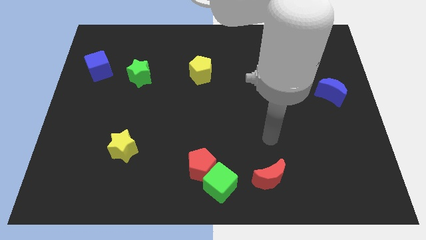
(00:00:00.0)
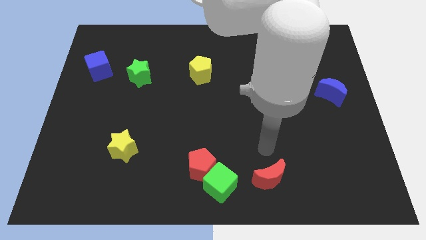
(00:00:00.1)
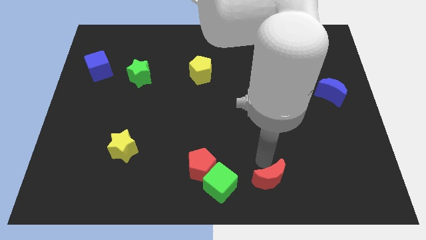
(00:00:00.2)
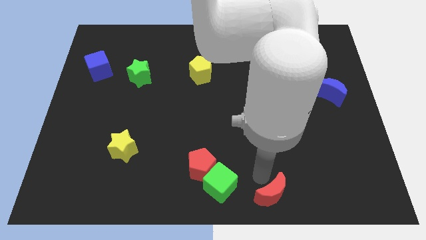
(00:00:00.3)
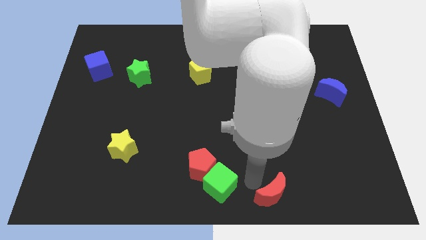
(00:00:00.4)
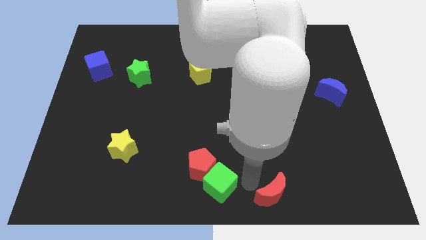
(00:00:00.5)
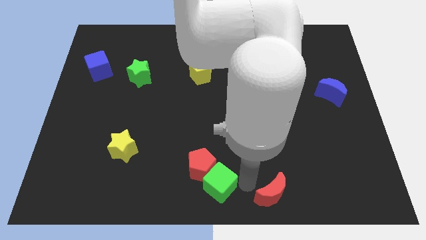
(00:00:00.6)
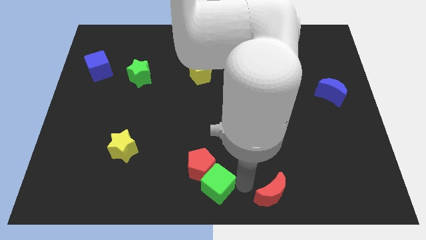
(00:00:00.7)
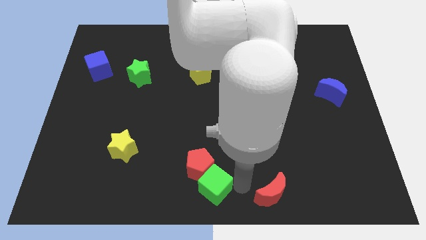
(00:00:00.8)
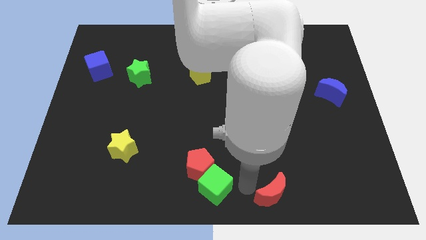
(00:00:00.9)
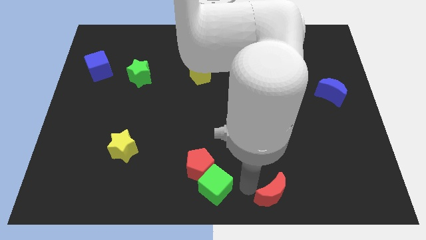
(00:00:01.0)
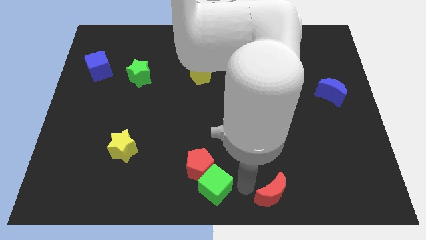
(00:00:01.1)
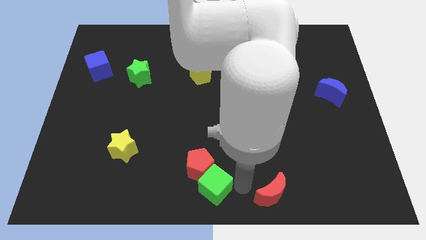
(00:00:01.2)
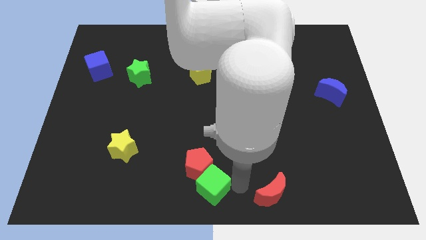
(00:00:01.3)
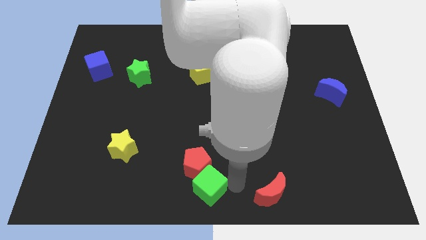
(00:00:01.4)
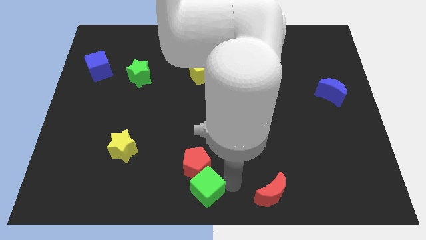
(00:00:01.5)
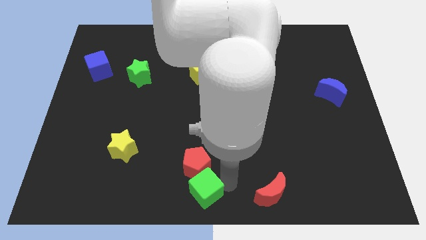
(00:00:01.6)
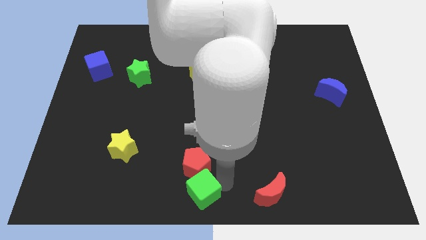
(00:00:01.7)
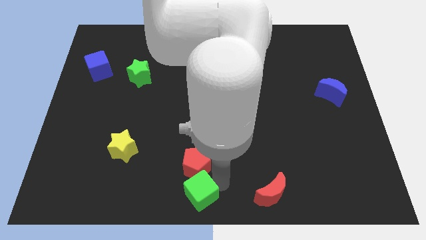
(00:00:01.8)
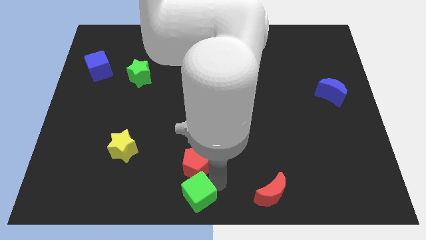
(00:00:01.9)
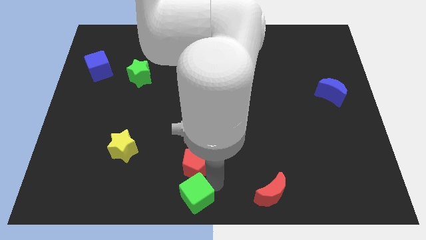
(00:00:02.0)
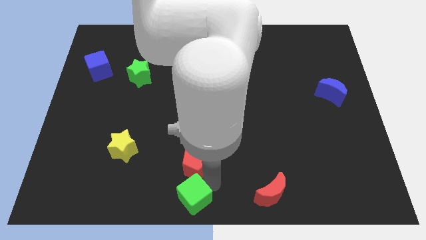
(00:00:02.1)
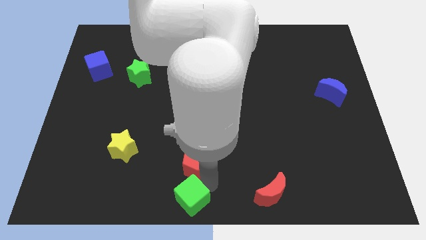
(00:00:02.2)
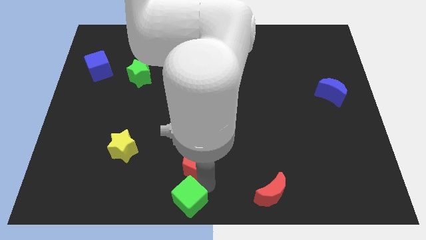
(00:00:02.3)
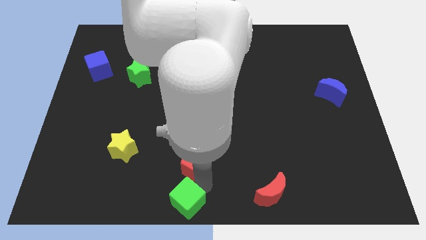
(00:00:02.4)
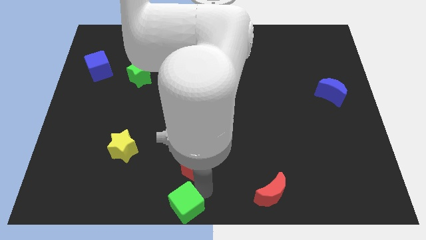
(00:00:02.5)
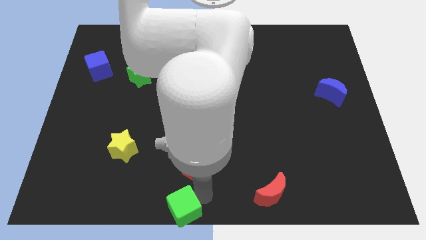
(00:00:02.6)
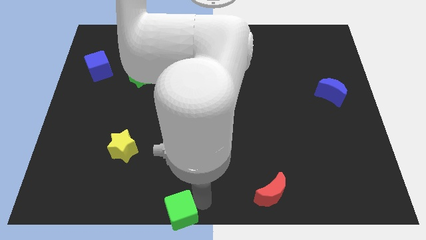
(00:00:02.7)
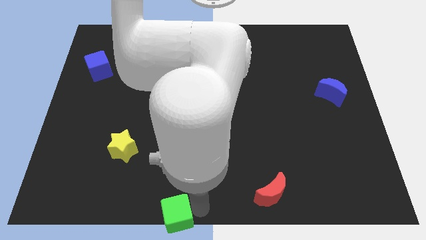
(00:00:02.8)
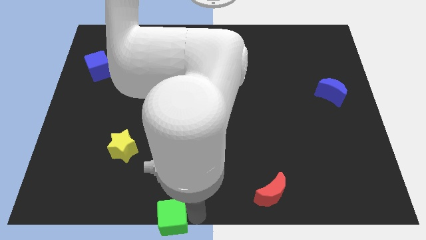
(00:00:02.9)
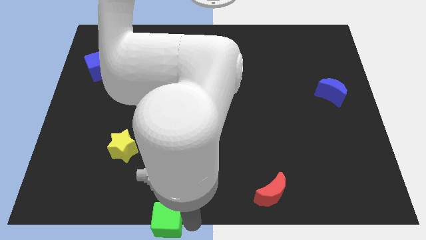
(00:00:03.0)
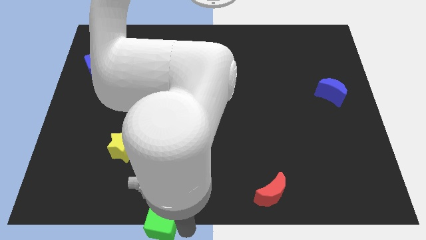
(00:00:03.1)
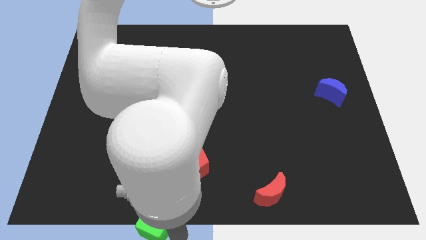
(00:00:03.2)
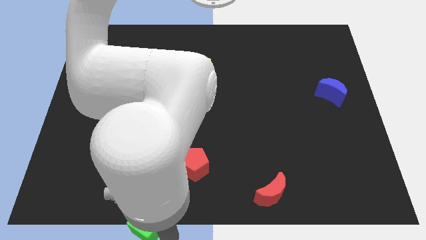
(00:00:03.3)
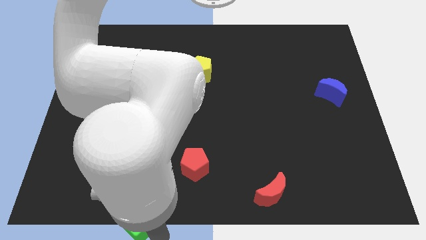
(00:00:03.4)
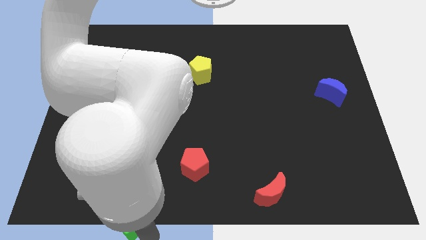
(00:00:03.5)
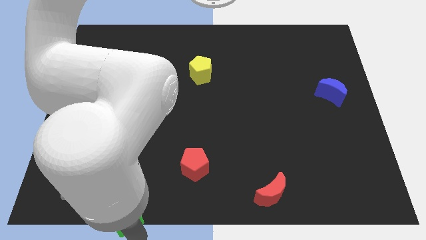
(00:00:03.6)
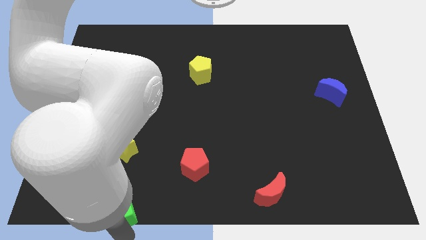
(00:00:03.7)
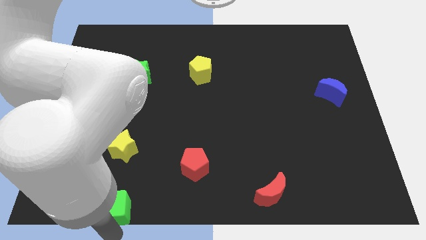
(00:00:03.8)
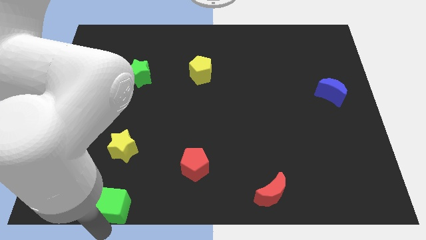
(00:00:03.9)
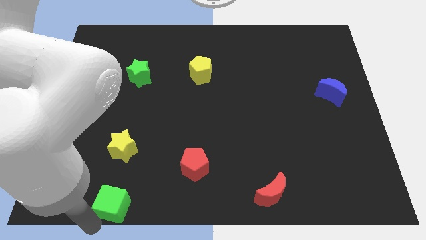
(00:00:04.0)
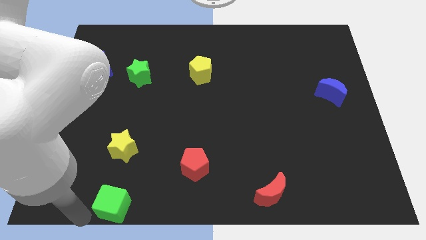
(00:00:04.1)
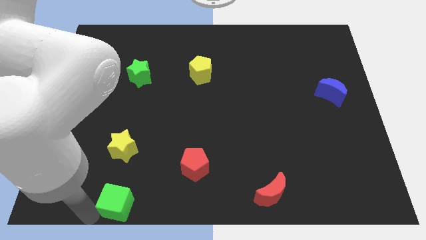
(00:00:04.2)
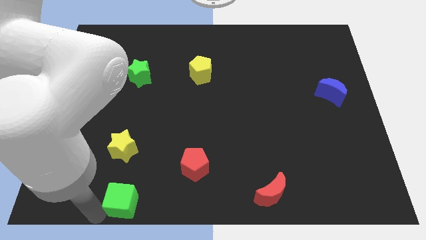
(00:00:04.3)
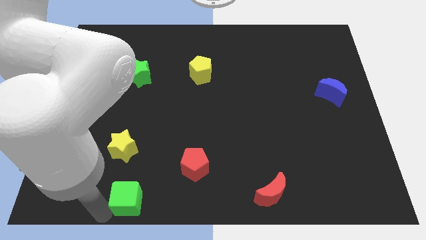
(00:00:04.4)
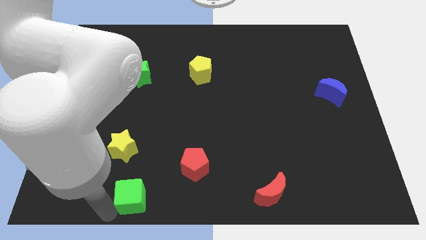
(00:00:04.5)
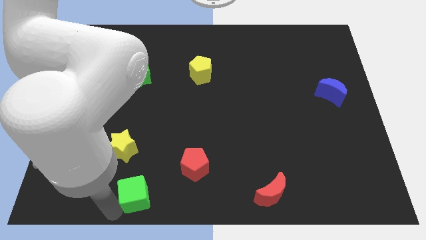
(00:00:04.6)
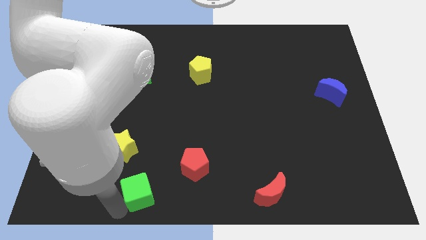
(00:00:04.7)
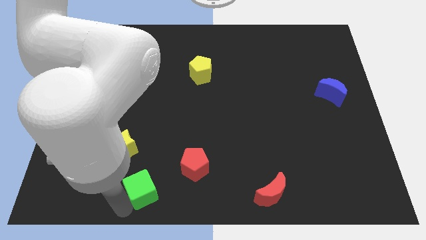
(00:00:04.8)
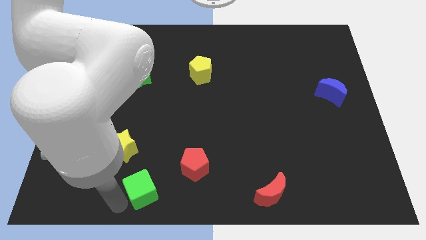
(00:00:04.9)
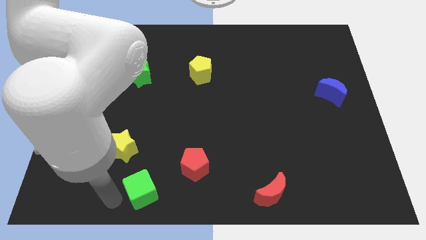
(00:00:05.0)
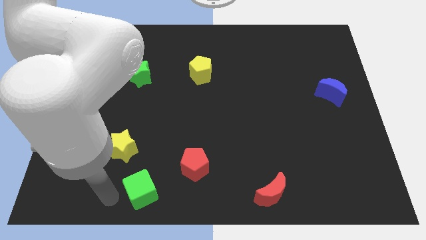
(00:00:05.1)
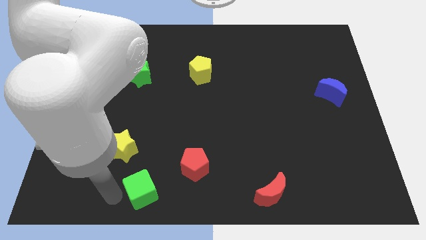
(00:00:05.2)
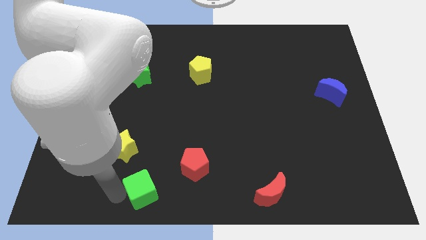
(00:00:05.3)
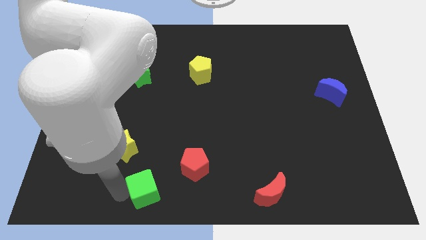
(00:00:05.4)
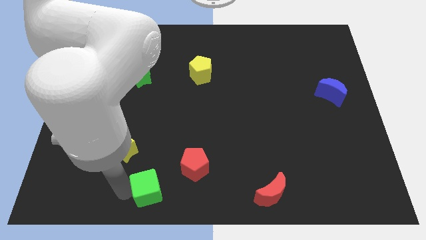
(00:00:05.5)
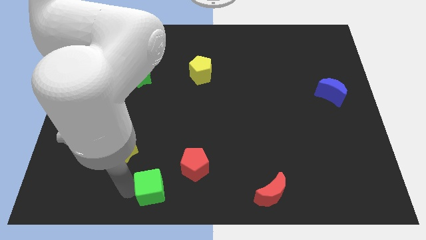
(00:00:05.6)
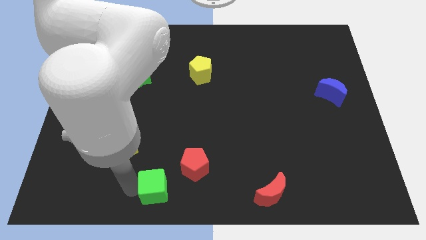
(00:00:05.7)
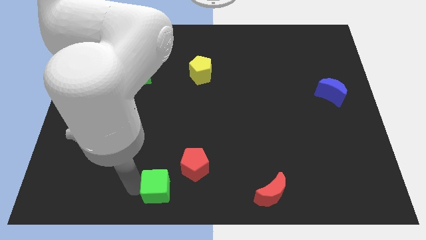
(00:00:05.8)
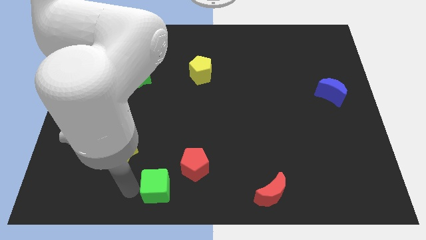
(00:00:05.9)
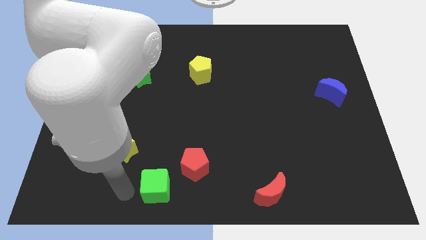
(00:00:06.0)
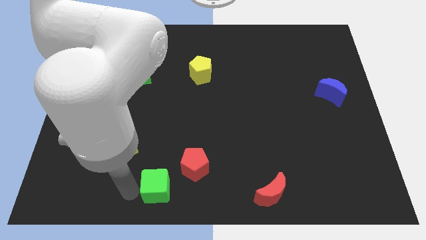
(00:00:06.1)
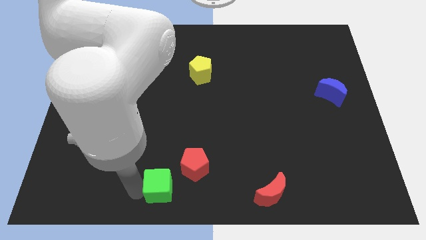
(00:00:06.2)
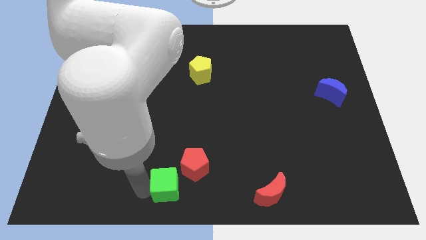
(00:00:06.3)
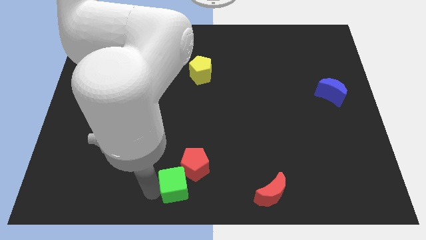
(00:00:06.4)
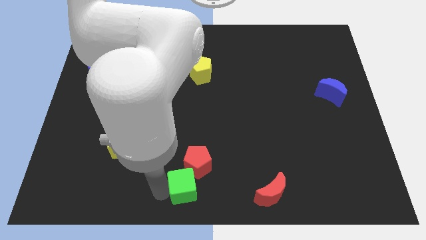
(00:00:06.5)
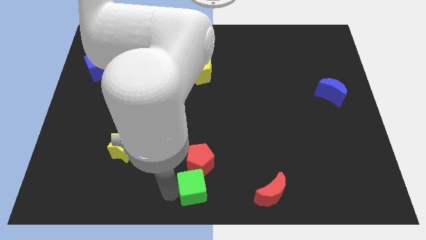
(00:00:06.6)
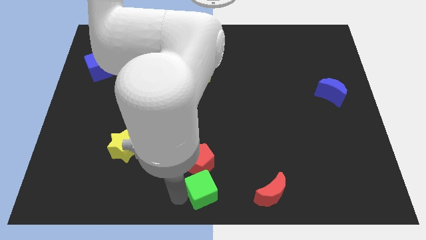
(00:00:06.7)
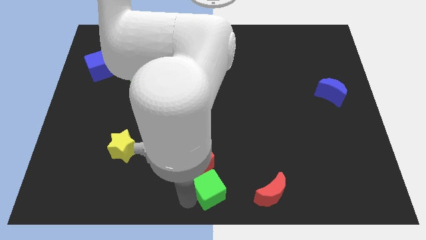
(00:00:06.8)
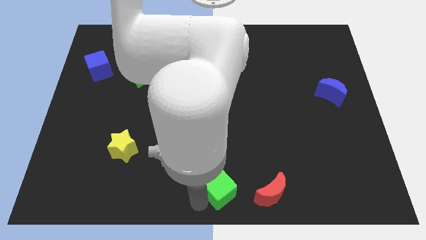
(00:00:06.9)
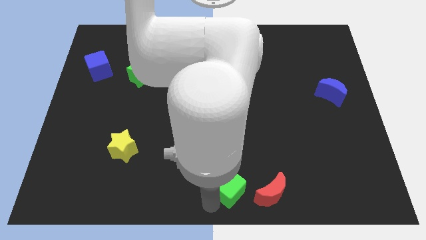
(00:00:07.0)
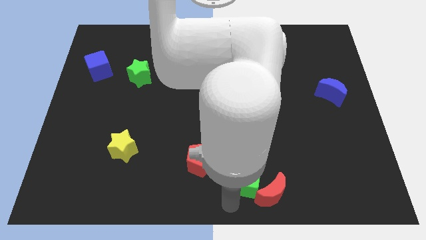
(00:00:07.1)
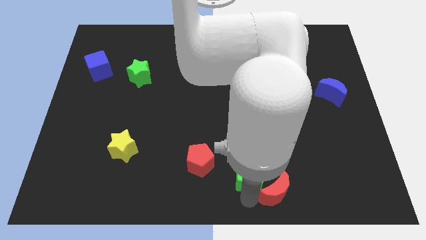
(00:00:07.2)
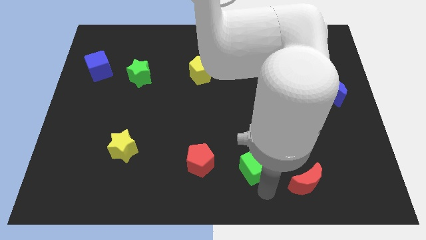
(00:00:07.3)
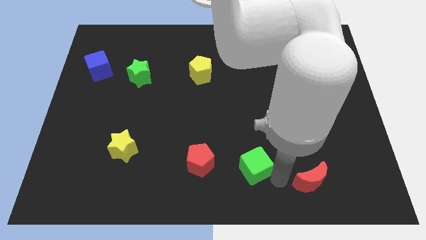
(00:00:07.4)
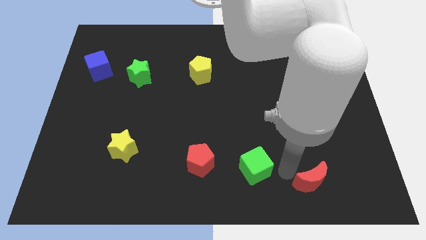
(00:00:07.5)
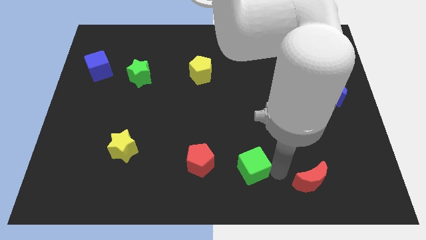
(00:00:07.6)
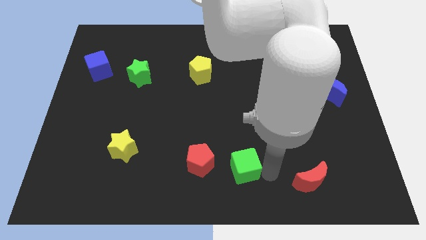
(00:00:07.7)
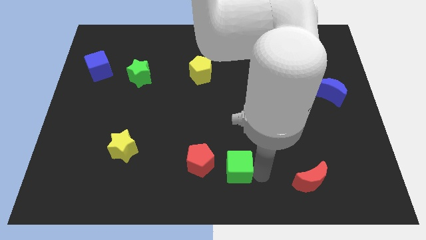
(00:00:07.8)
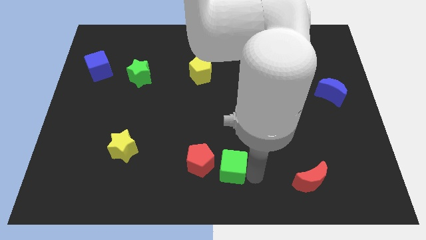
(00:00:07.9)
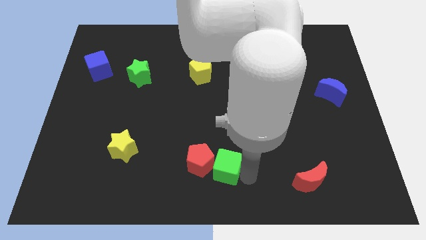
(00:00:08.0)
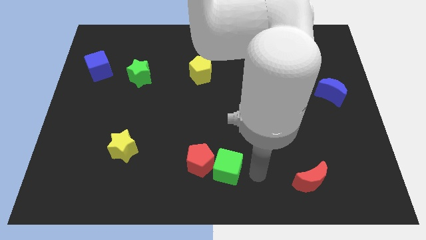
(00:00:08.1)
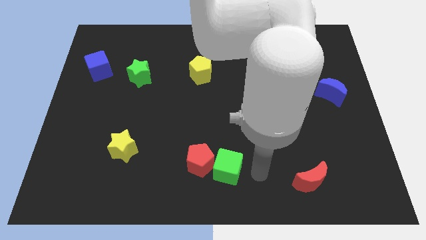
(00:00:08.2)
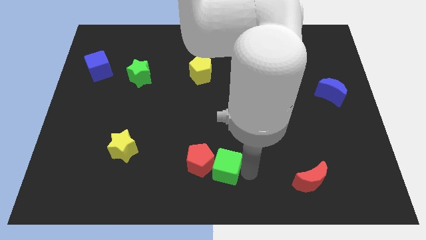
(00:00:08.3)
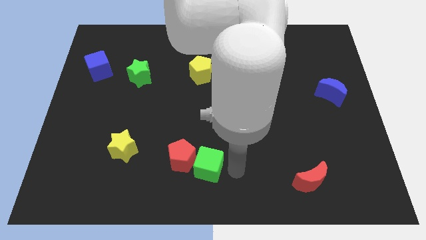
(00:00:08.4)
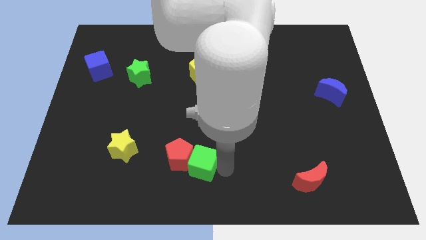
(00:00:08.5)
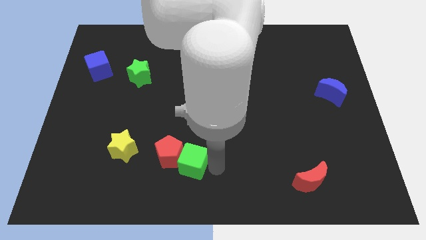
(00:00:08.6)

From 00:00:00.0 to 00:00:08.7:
slightly move the green cube upwards and then left
